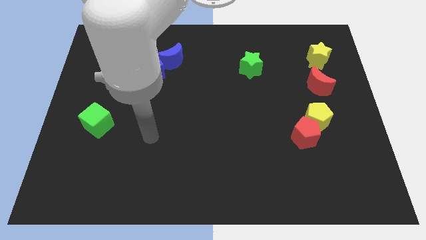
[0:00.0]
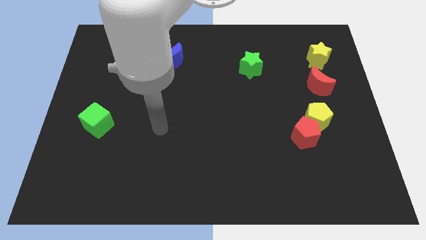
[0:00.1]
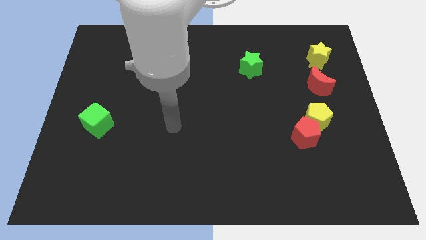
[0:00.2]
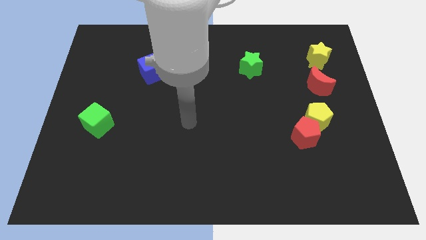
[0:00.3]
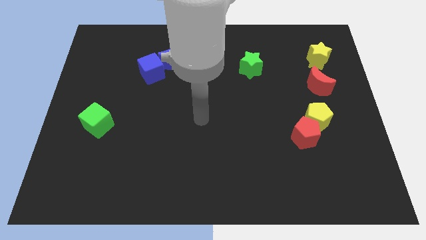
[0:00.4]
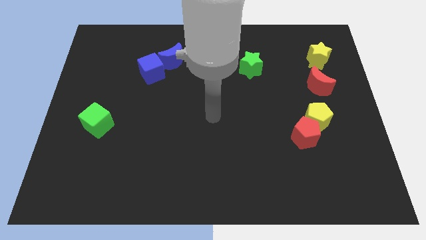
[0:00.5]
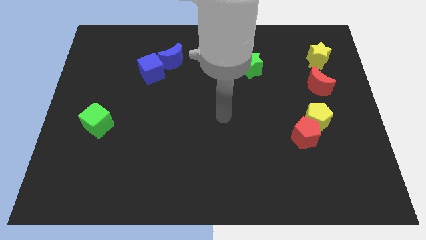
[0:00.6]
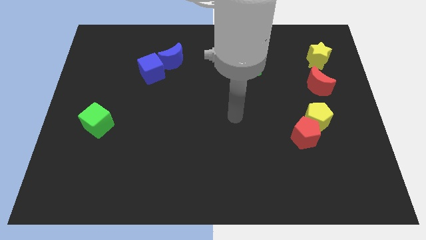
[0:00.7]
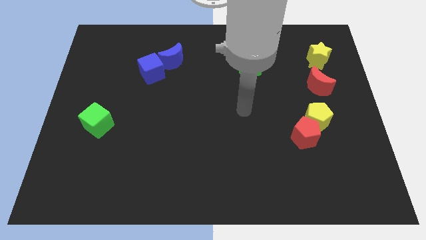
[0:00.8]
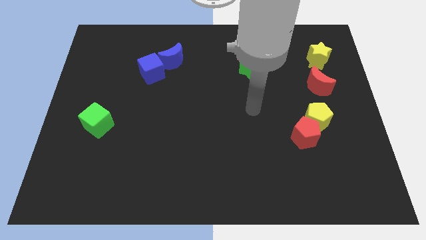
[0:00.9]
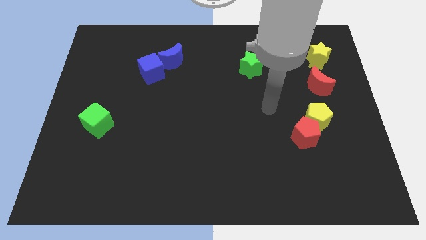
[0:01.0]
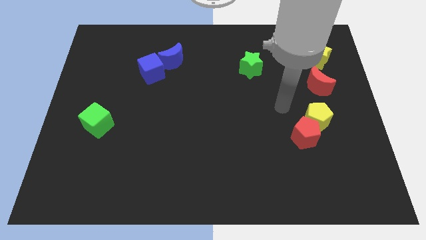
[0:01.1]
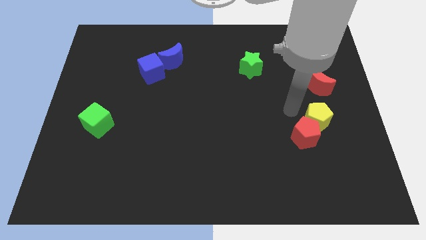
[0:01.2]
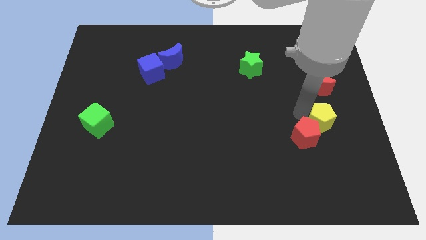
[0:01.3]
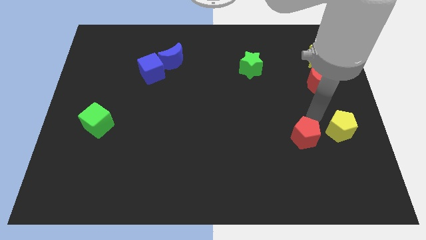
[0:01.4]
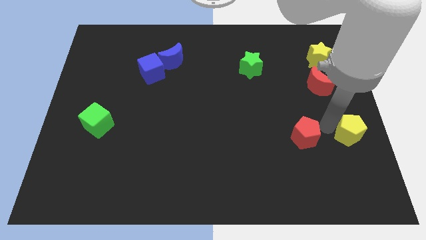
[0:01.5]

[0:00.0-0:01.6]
move the red pentagon away from the yellow pentagon

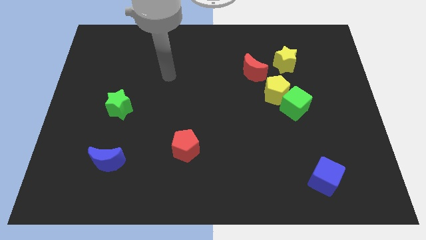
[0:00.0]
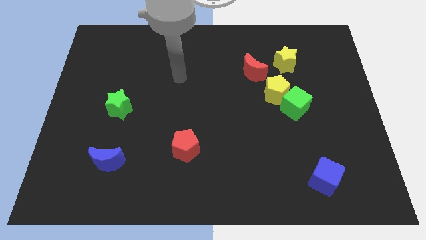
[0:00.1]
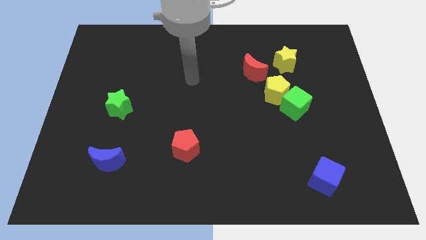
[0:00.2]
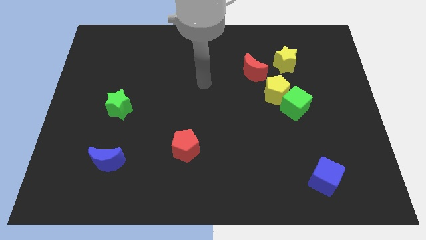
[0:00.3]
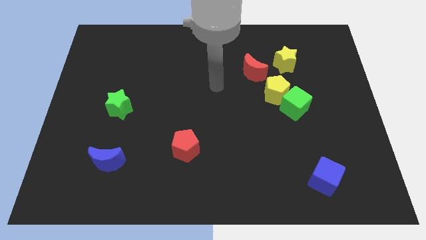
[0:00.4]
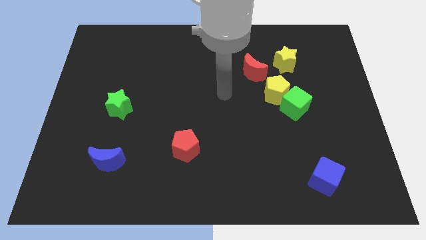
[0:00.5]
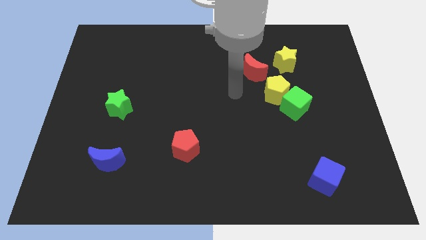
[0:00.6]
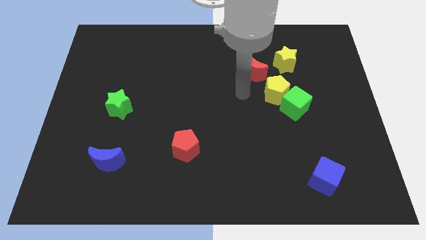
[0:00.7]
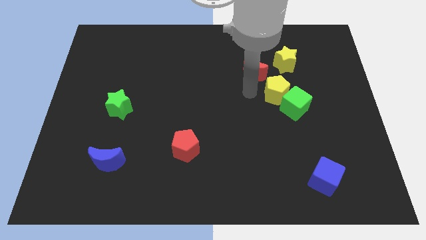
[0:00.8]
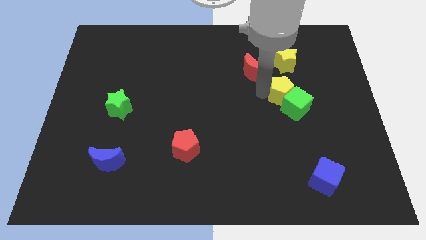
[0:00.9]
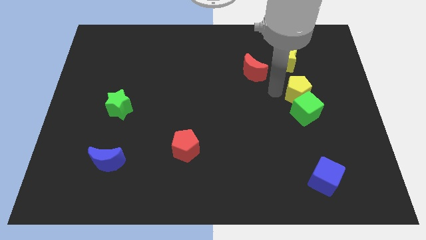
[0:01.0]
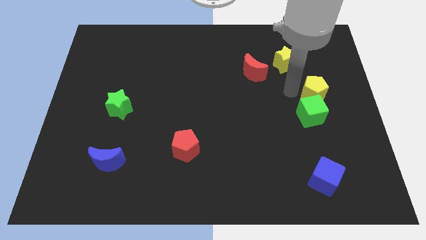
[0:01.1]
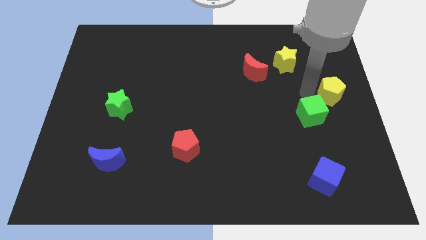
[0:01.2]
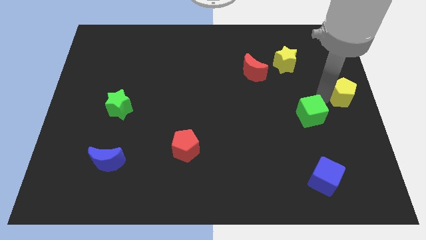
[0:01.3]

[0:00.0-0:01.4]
pull the green cube apart from the yellow pentagon

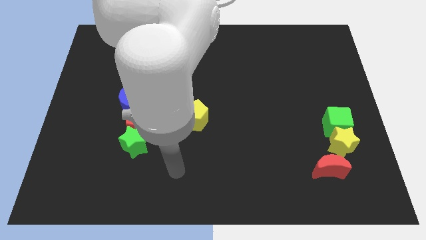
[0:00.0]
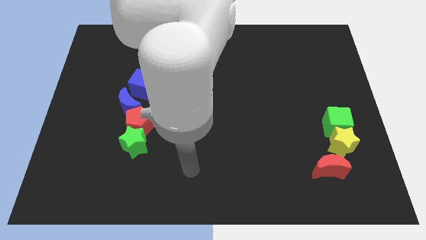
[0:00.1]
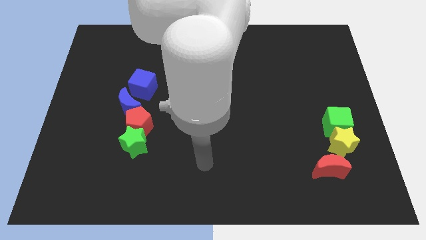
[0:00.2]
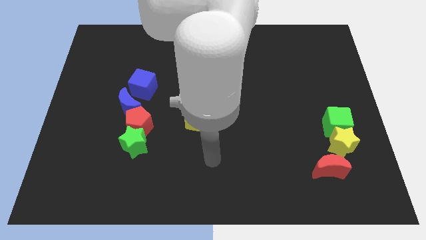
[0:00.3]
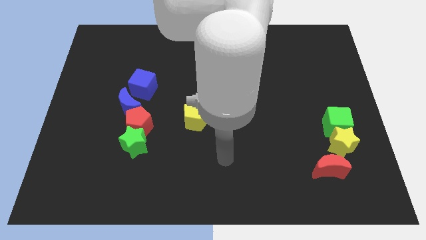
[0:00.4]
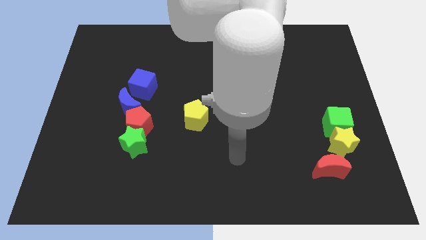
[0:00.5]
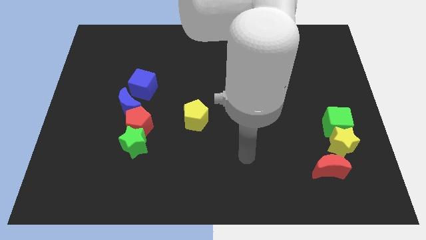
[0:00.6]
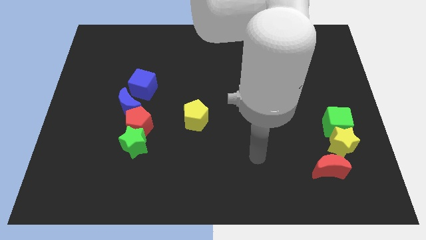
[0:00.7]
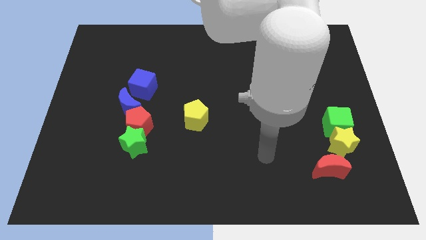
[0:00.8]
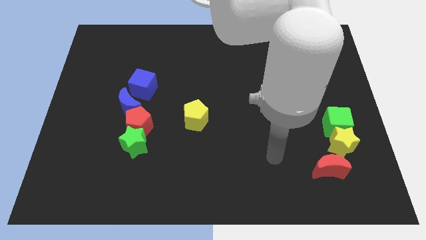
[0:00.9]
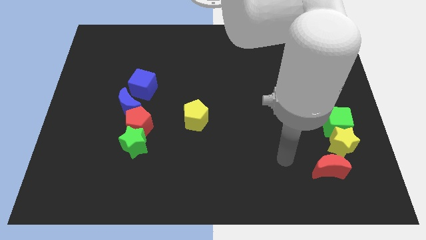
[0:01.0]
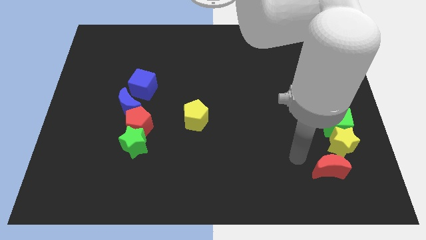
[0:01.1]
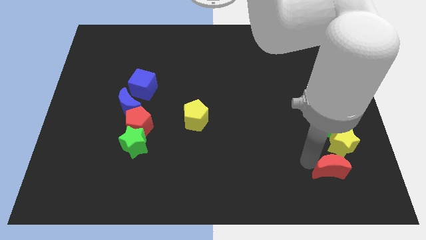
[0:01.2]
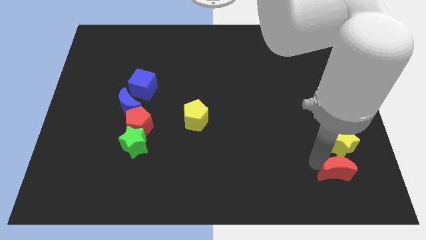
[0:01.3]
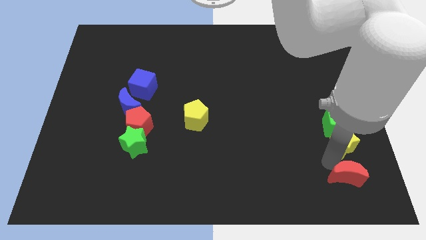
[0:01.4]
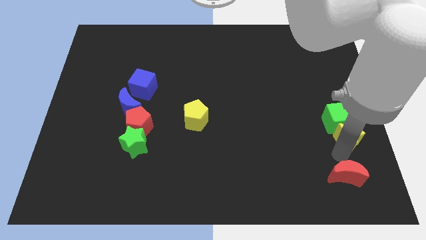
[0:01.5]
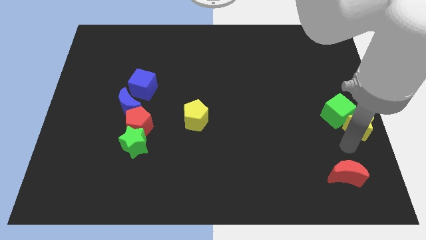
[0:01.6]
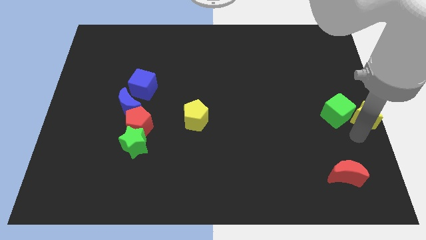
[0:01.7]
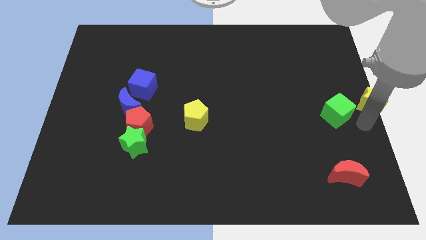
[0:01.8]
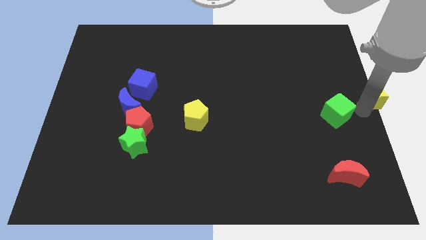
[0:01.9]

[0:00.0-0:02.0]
pull the green cube apart from the yellow star

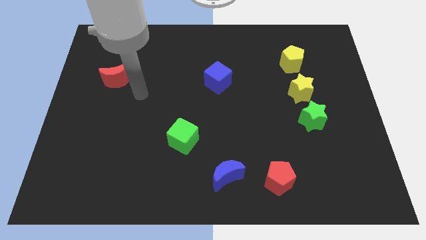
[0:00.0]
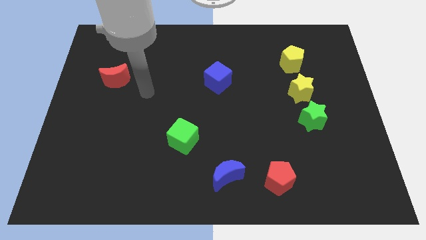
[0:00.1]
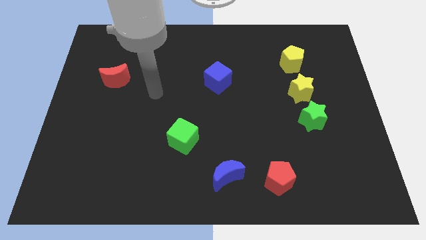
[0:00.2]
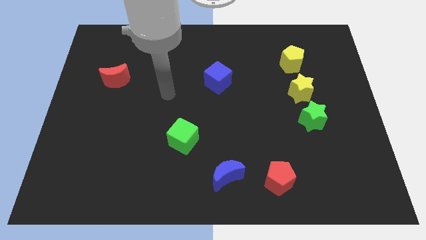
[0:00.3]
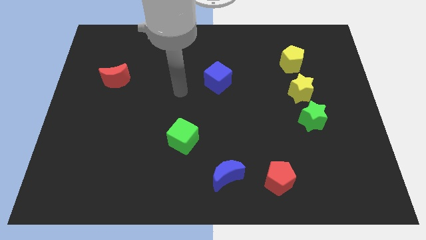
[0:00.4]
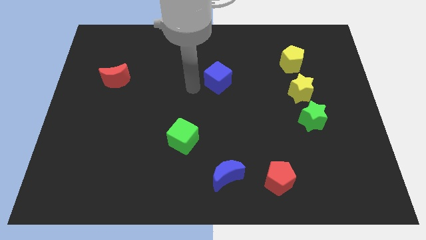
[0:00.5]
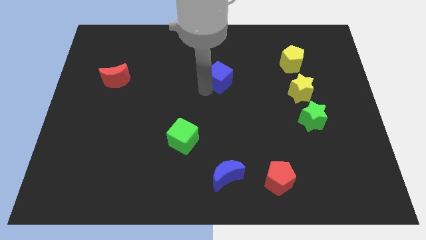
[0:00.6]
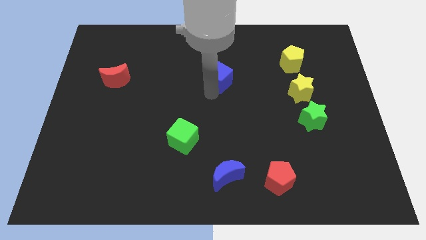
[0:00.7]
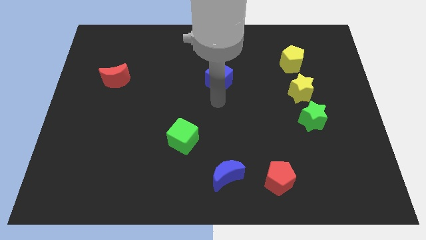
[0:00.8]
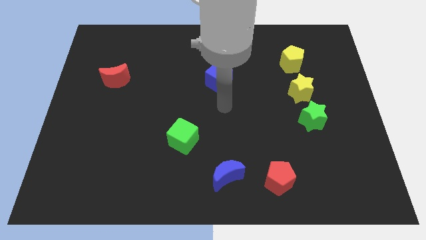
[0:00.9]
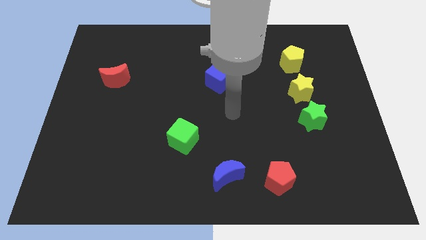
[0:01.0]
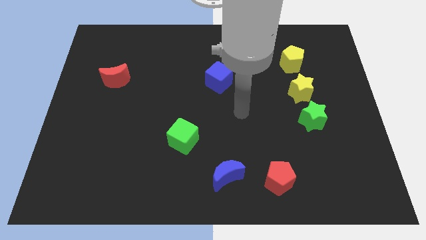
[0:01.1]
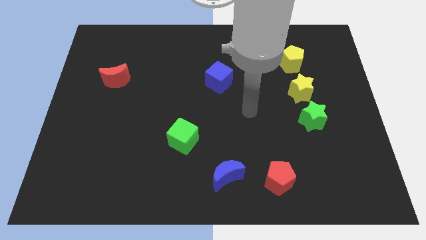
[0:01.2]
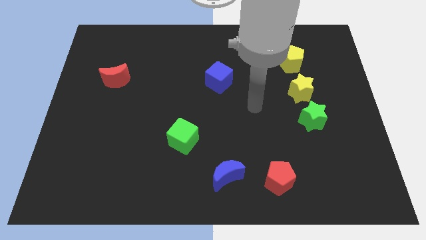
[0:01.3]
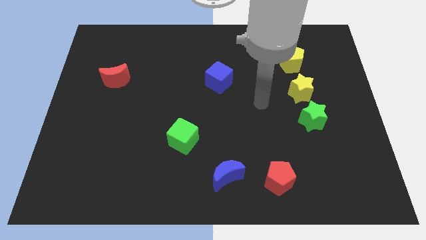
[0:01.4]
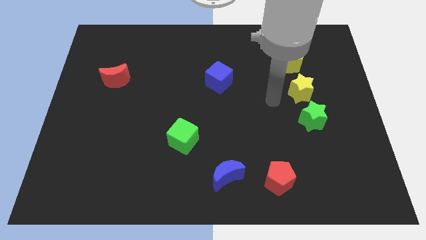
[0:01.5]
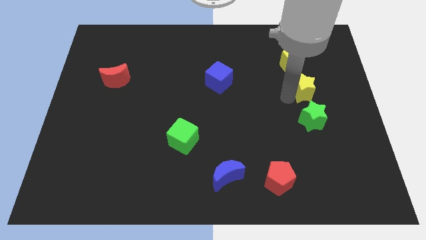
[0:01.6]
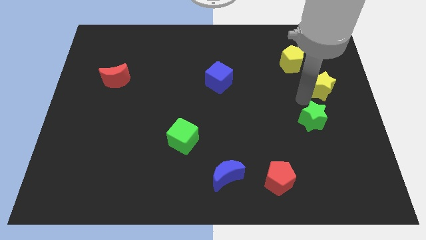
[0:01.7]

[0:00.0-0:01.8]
move the green star away from the yellow star

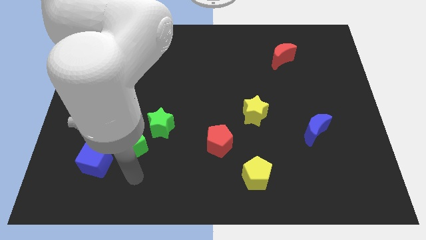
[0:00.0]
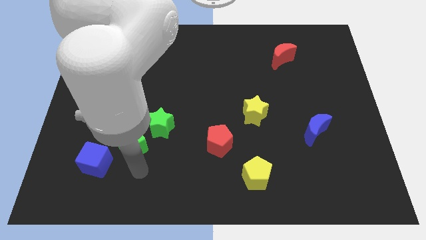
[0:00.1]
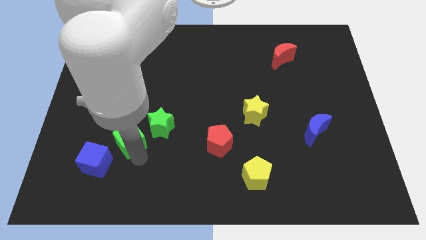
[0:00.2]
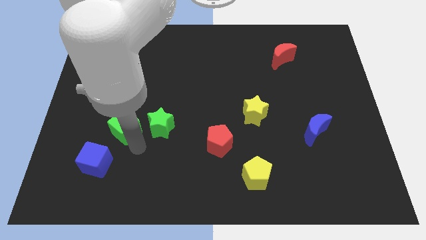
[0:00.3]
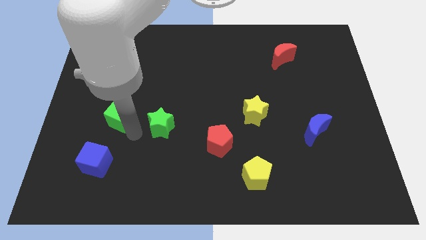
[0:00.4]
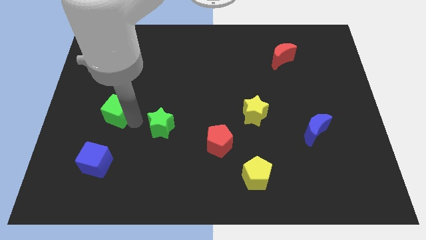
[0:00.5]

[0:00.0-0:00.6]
move the green star away from the green cube

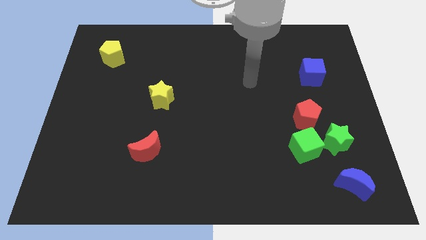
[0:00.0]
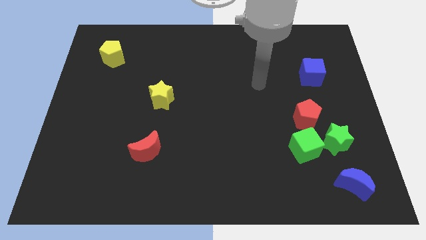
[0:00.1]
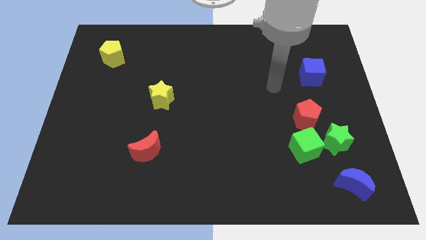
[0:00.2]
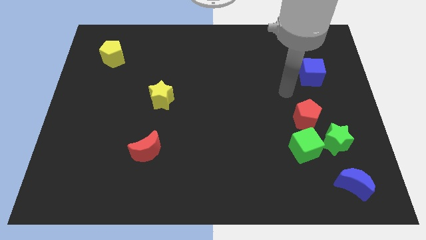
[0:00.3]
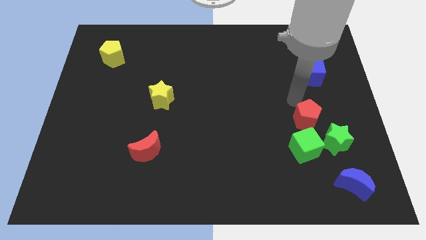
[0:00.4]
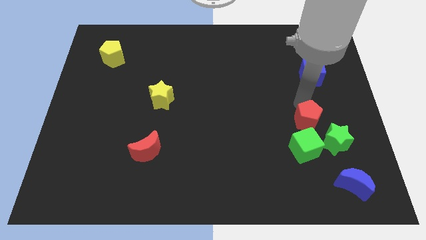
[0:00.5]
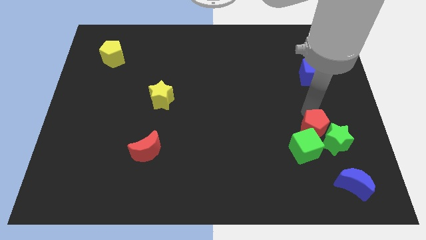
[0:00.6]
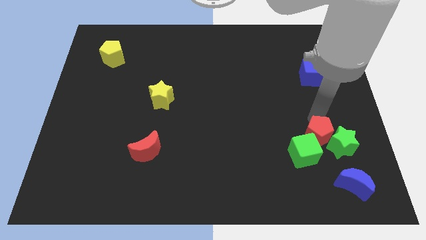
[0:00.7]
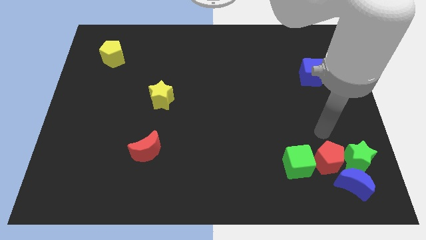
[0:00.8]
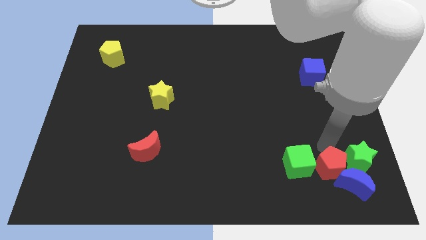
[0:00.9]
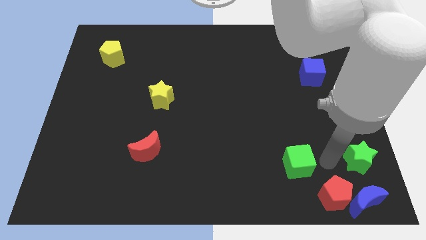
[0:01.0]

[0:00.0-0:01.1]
move the green cube away from the green star and red pentagon

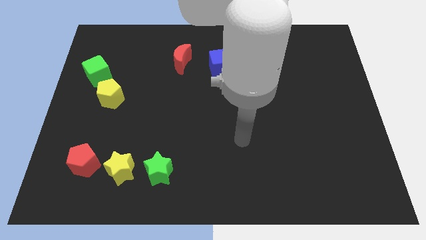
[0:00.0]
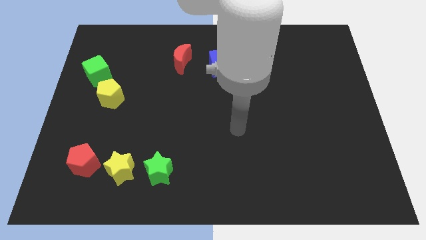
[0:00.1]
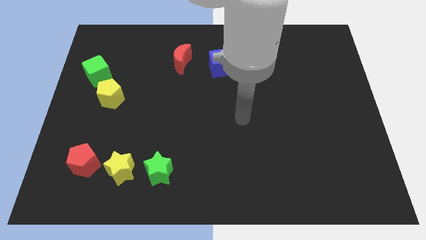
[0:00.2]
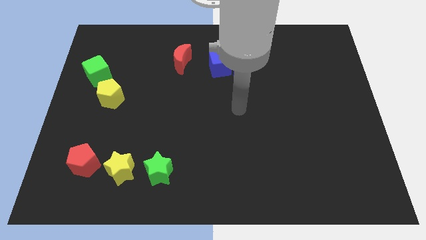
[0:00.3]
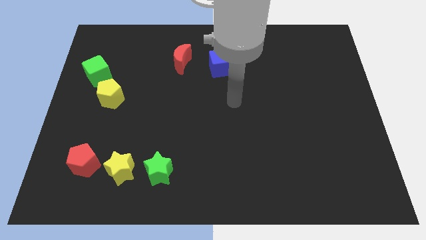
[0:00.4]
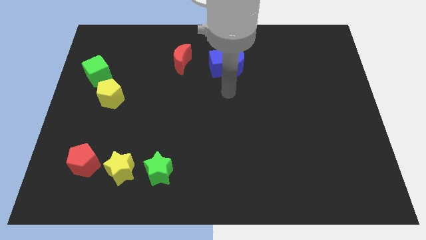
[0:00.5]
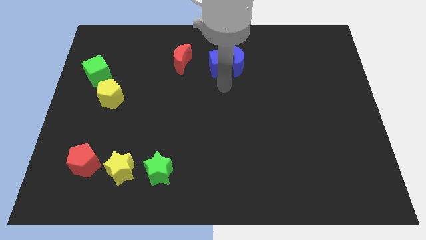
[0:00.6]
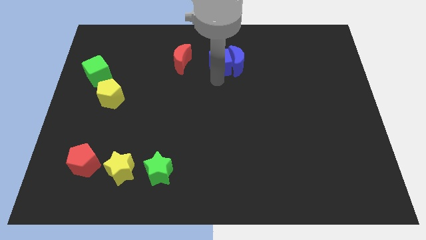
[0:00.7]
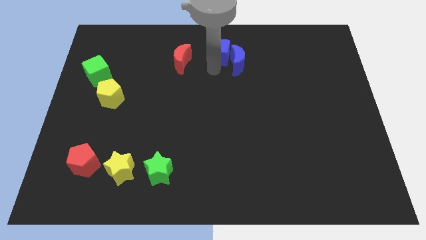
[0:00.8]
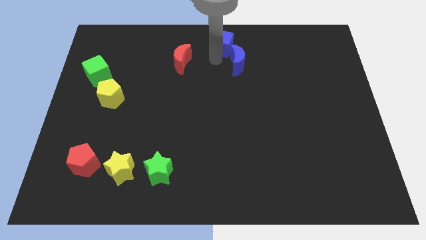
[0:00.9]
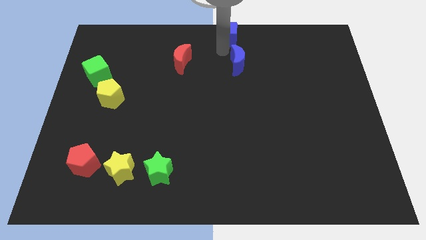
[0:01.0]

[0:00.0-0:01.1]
pull the blue moon apart from the blue cube
